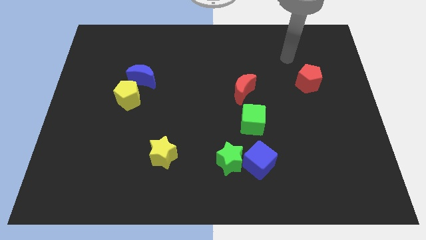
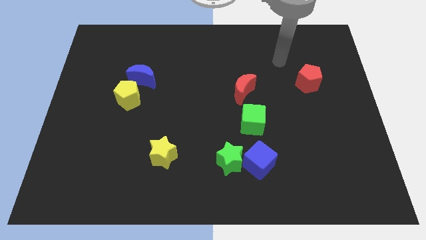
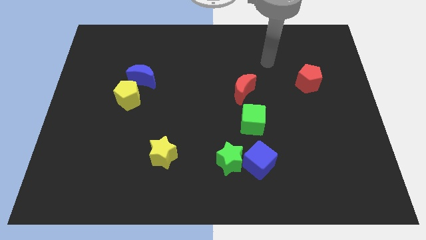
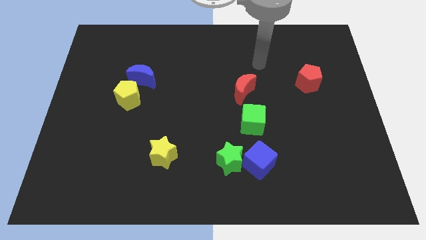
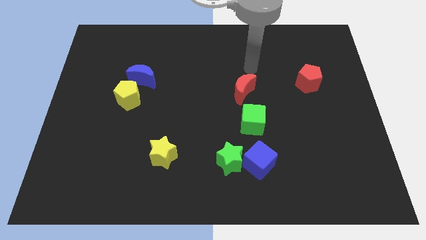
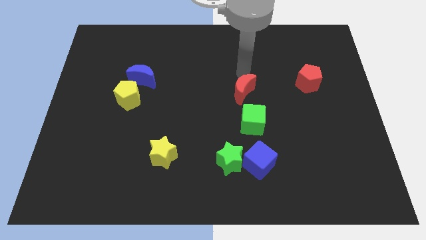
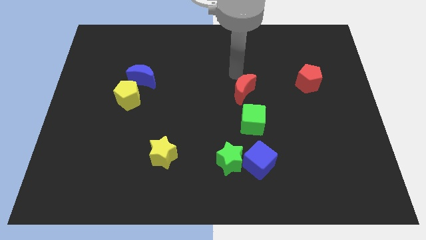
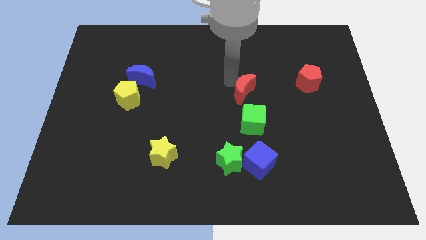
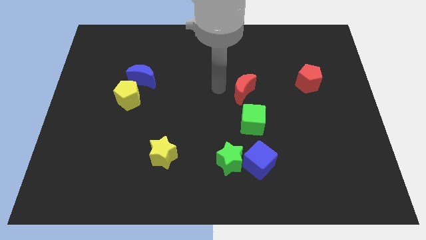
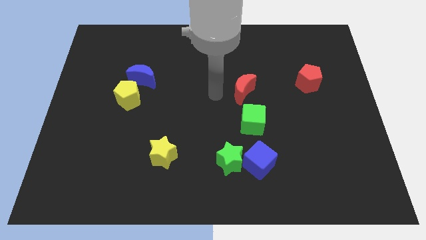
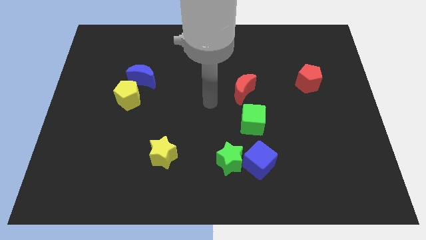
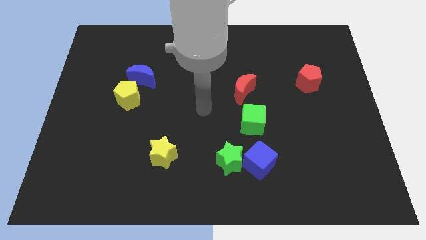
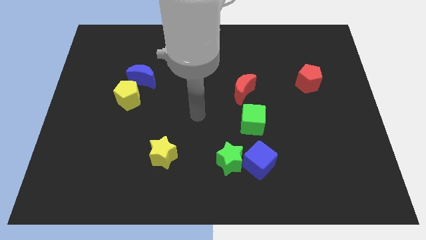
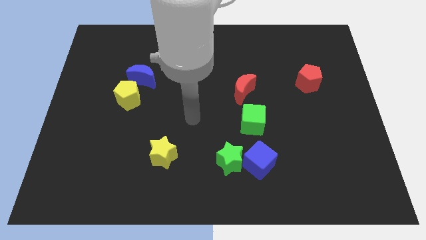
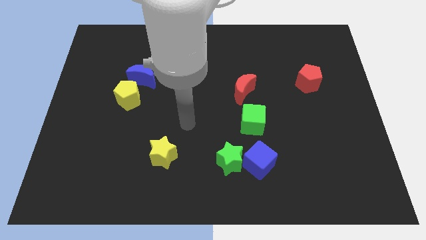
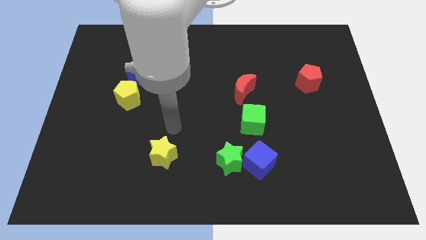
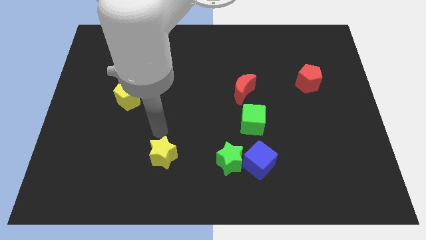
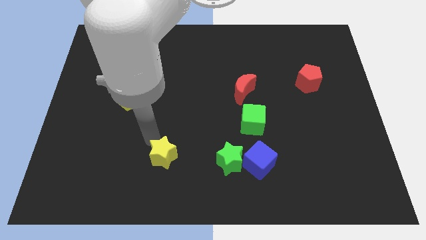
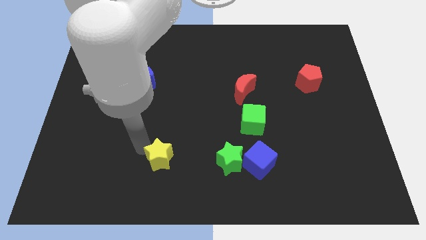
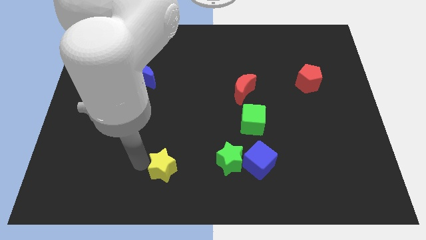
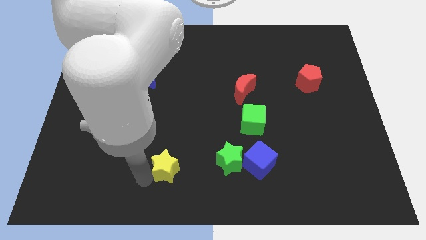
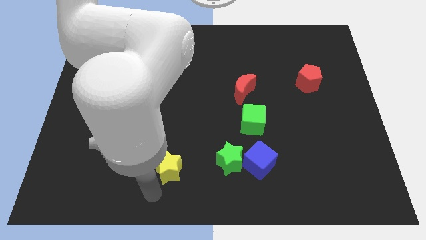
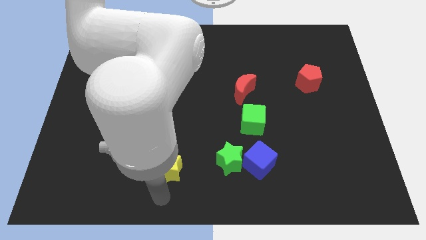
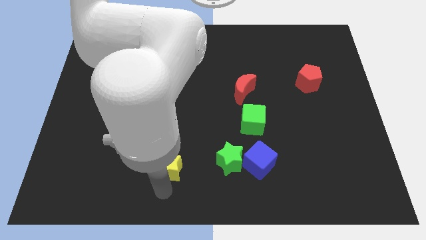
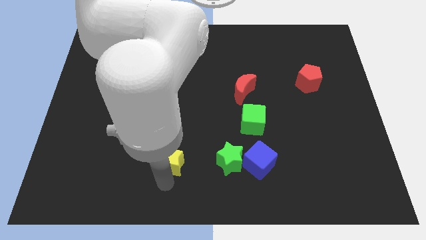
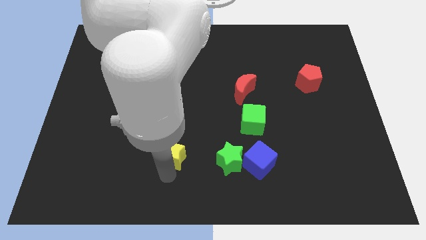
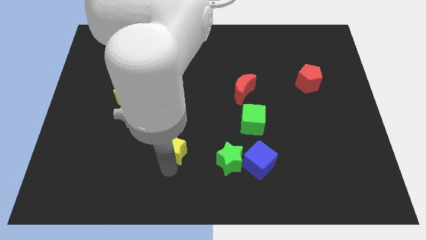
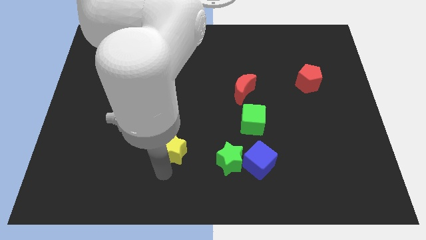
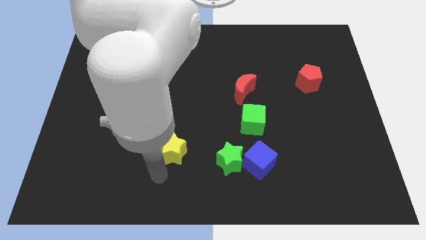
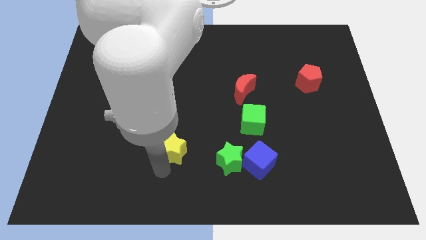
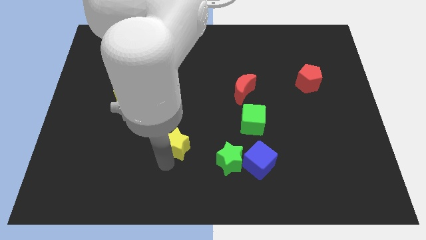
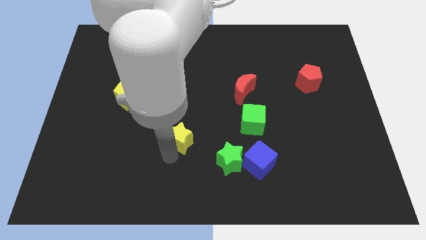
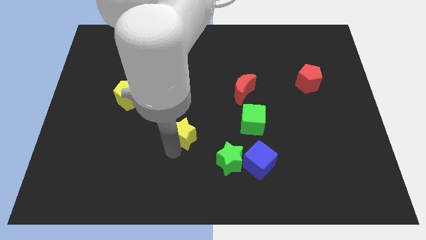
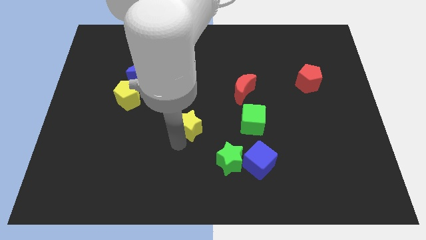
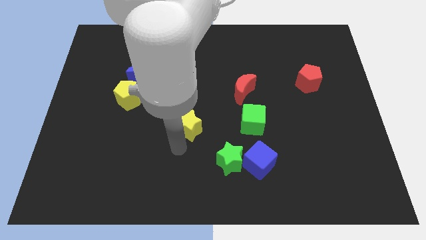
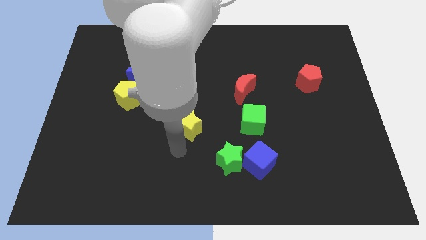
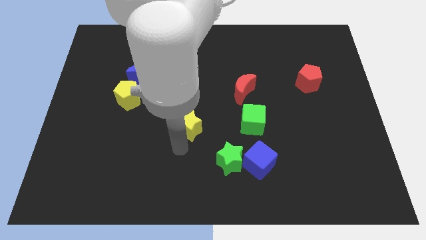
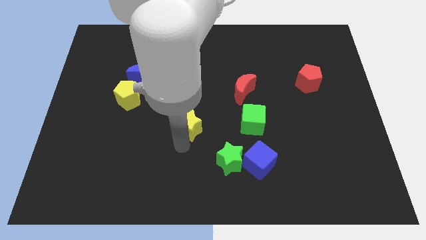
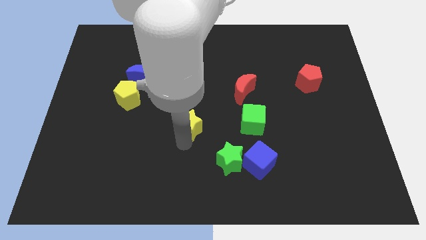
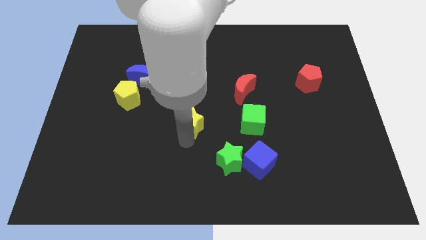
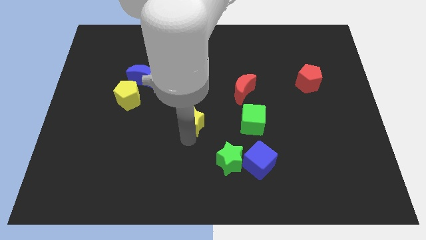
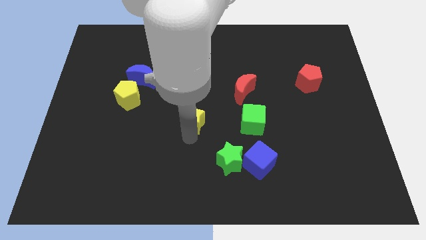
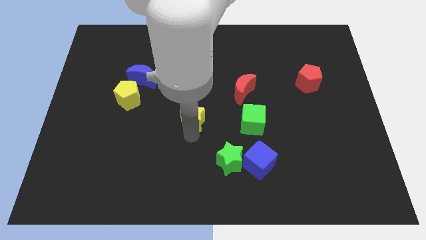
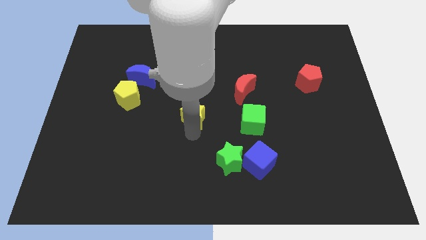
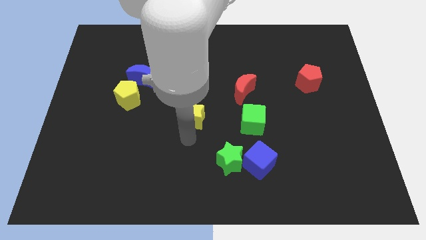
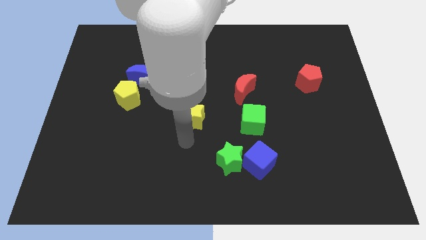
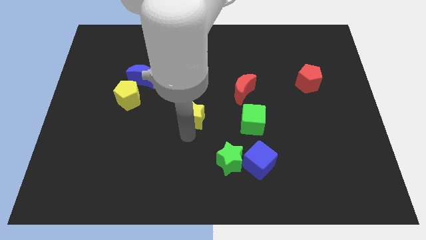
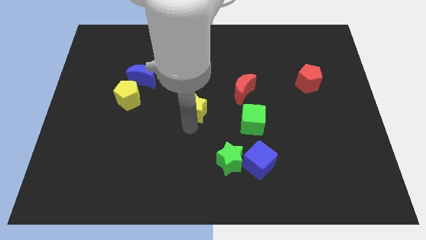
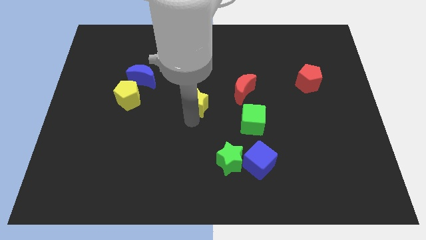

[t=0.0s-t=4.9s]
push the yellow star left of the red moon

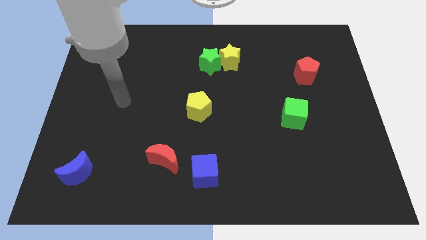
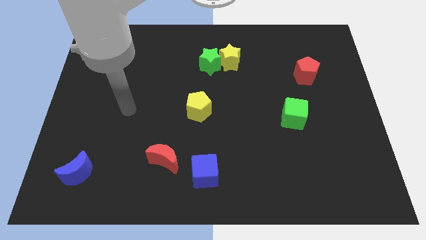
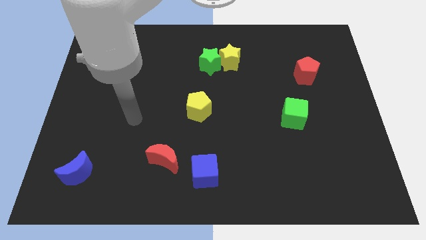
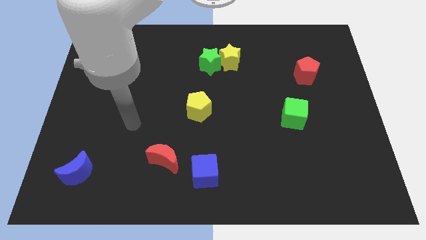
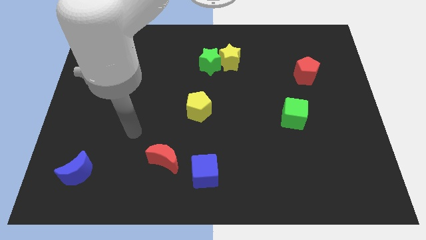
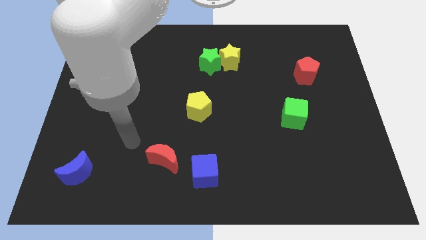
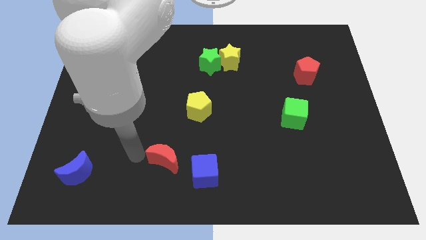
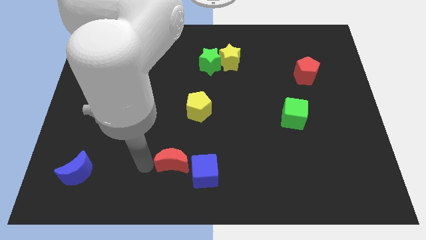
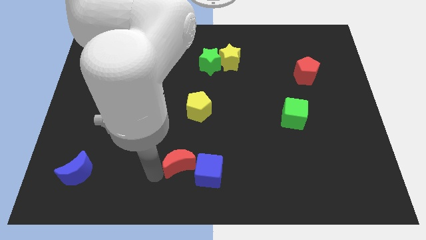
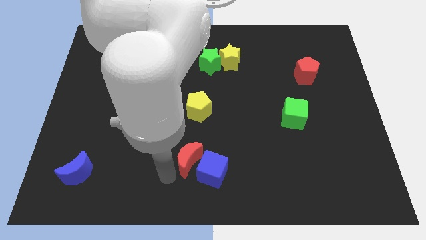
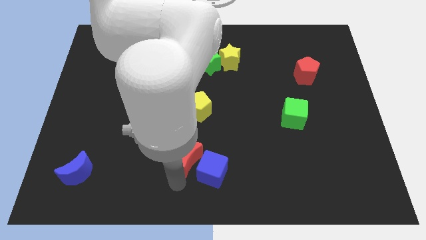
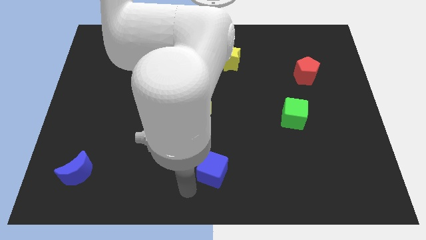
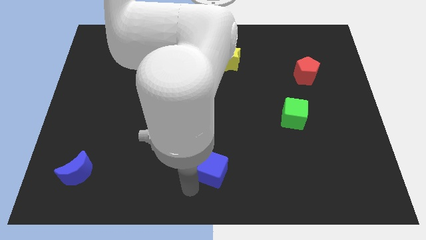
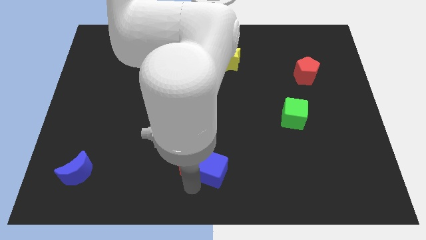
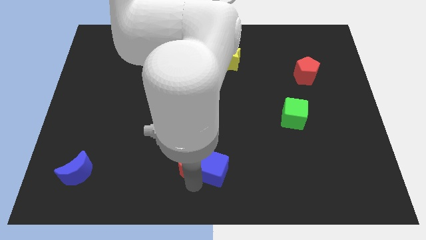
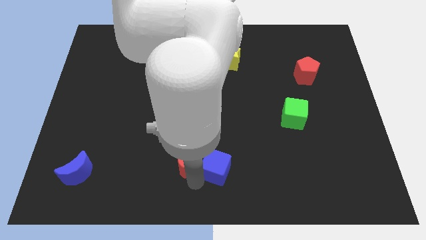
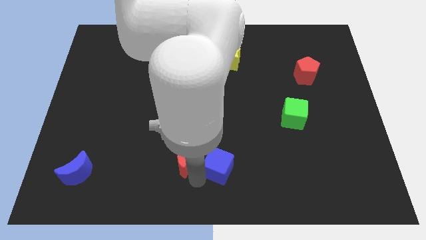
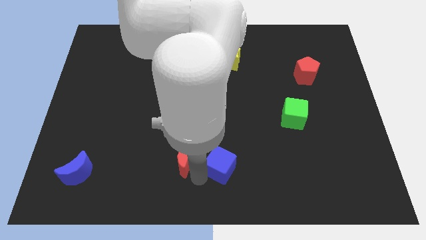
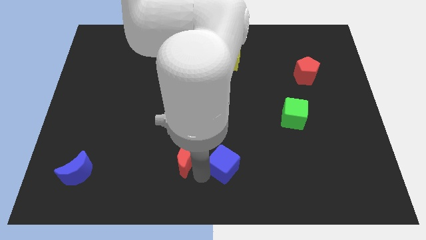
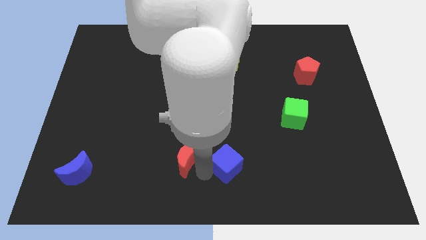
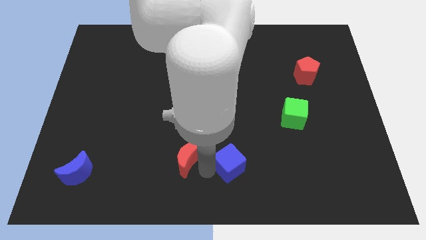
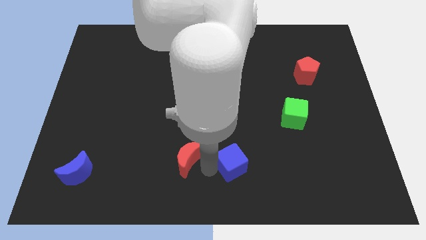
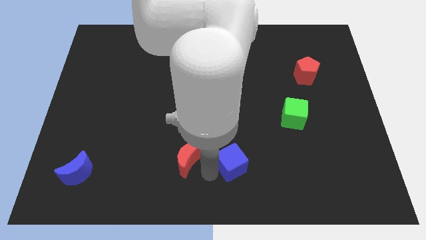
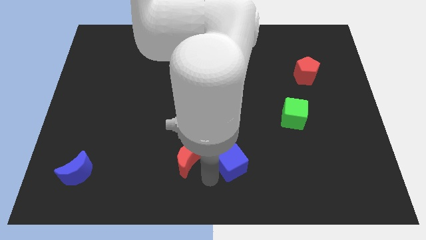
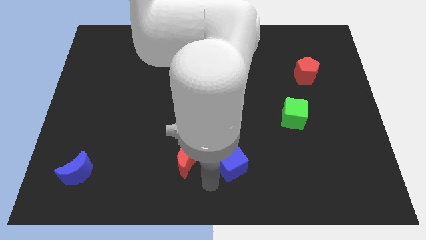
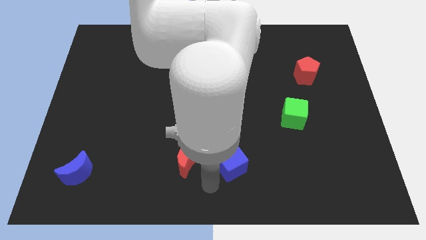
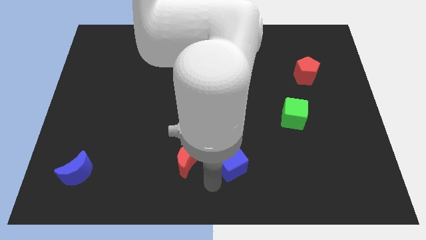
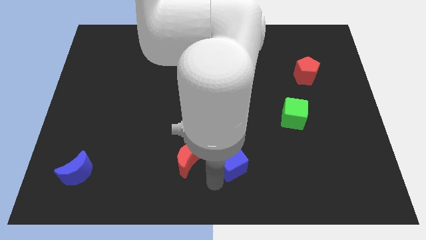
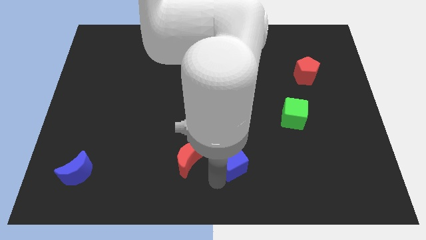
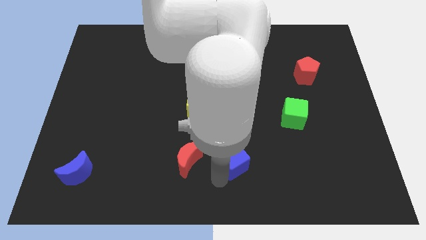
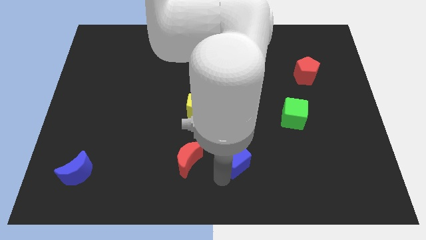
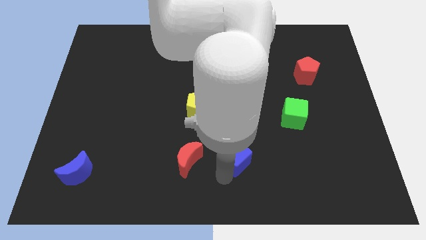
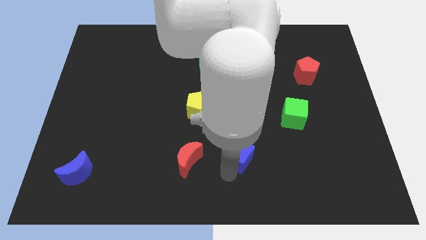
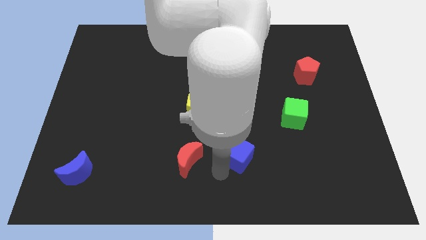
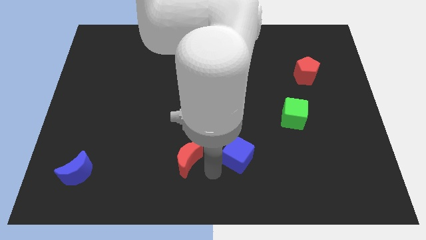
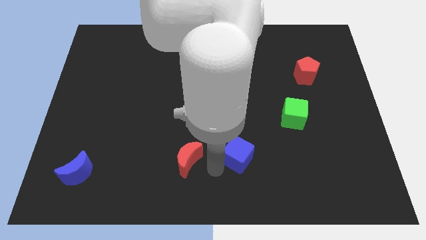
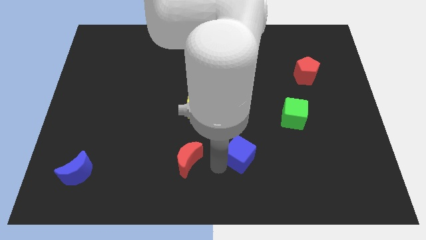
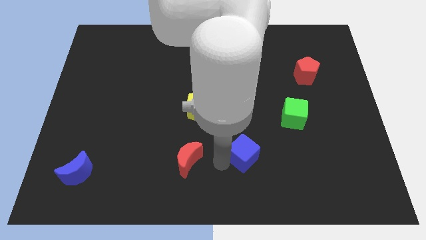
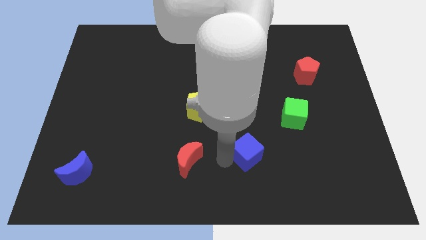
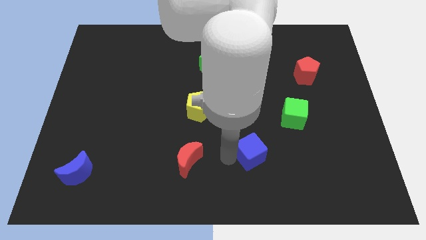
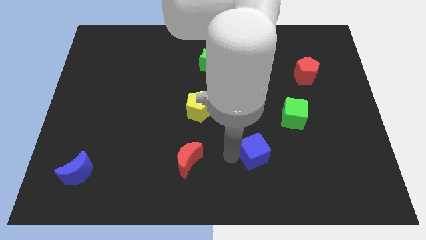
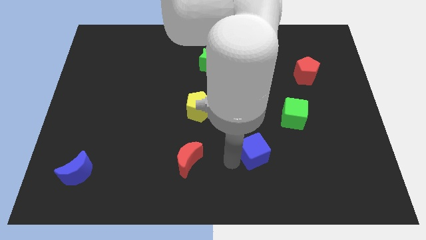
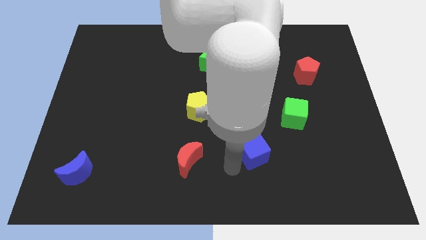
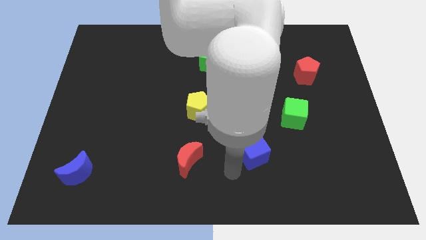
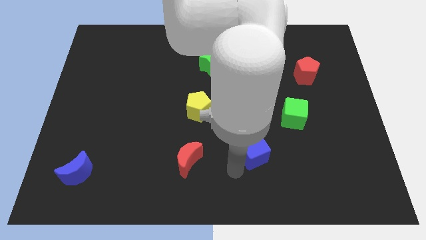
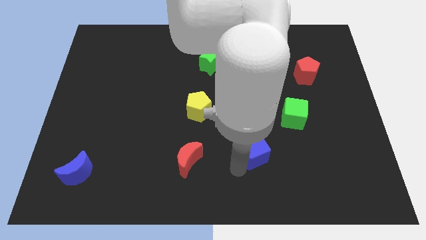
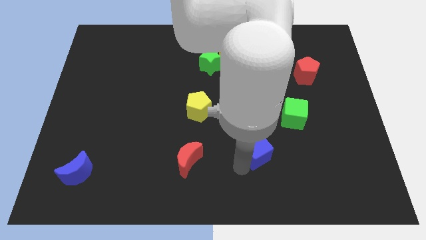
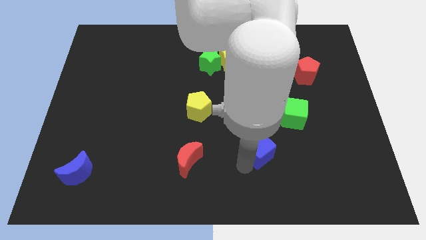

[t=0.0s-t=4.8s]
push the blue cube to the bottom left side of the green cube
